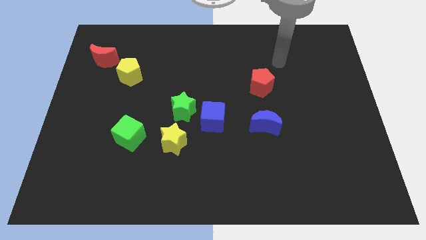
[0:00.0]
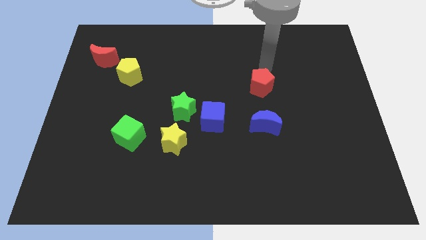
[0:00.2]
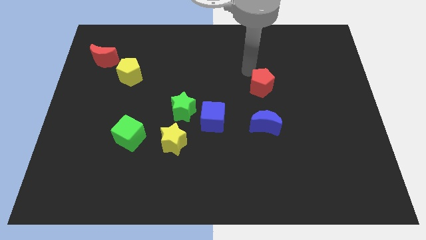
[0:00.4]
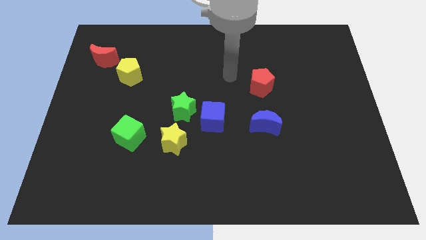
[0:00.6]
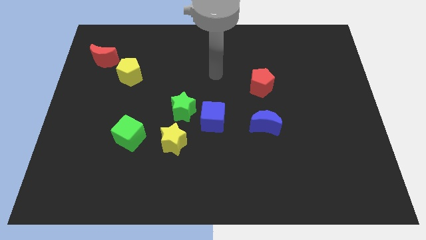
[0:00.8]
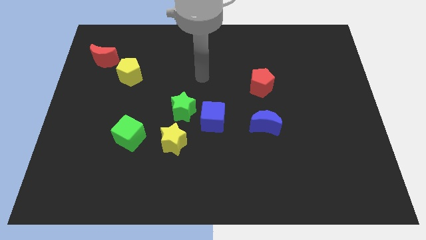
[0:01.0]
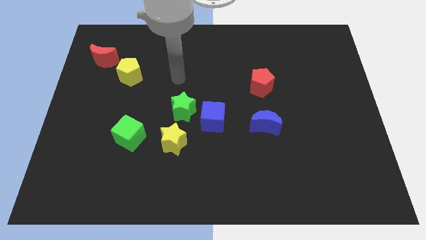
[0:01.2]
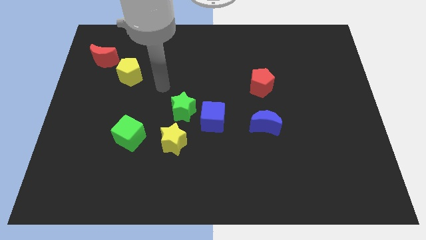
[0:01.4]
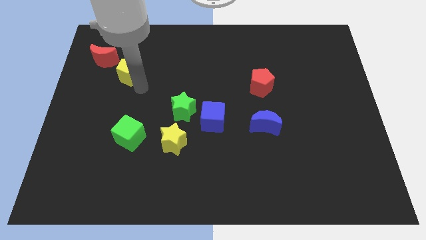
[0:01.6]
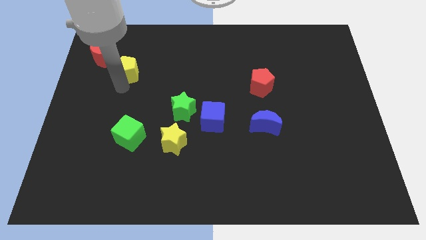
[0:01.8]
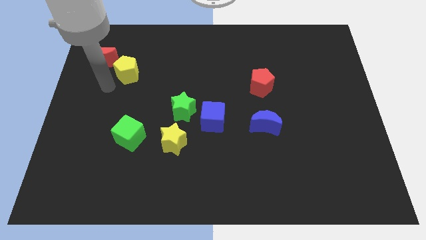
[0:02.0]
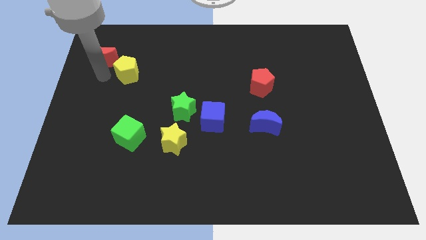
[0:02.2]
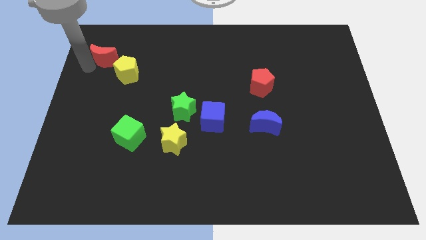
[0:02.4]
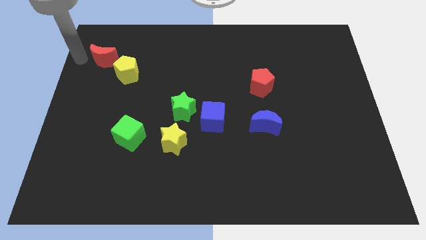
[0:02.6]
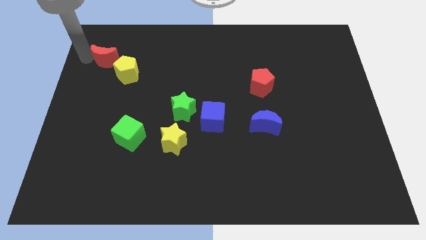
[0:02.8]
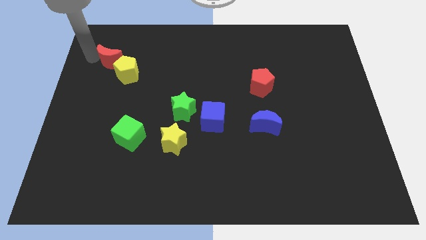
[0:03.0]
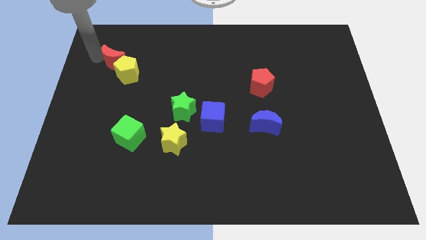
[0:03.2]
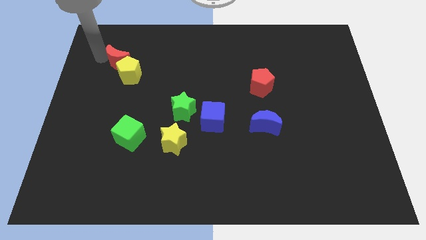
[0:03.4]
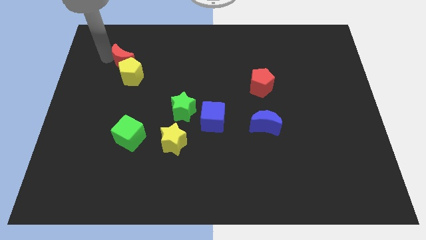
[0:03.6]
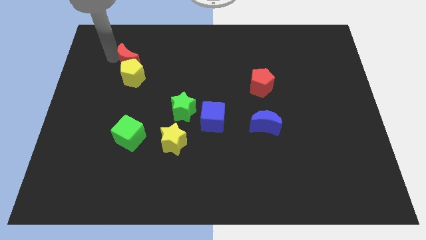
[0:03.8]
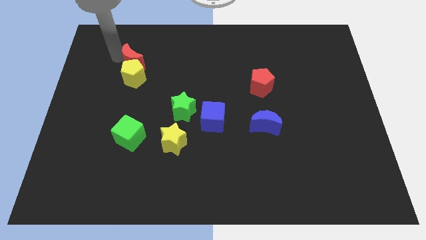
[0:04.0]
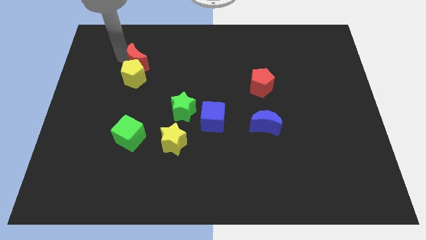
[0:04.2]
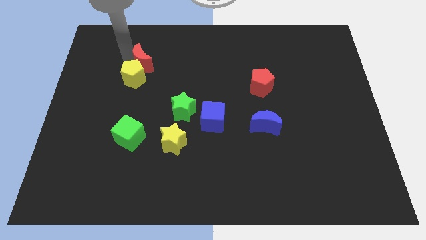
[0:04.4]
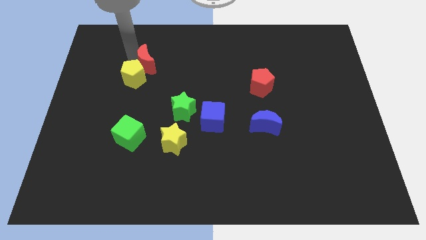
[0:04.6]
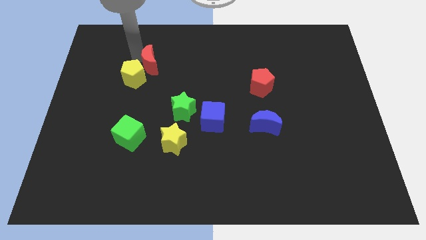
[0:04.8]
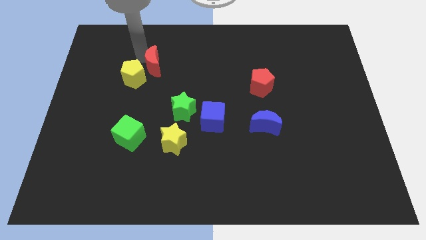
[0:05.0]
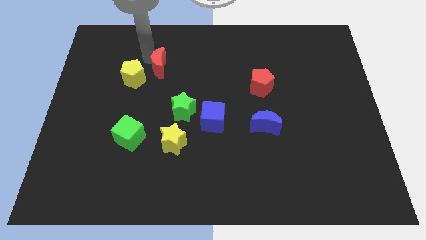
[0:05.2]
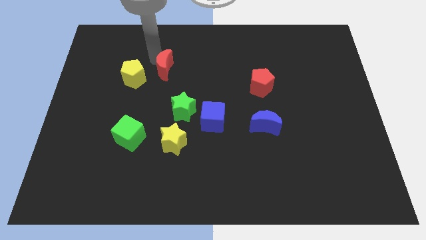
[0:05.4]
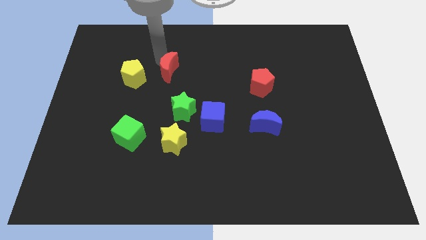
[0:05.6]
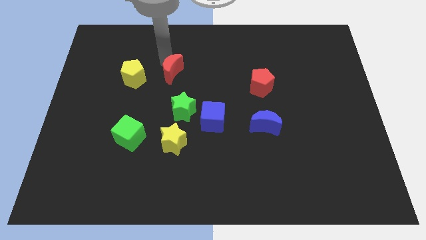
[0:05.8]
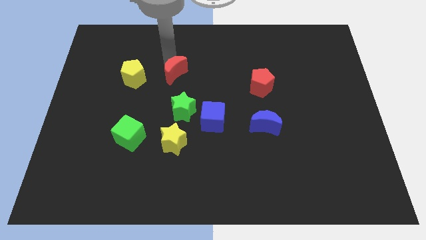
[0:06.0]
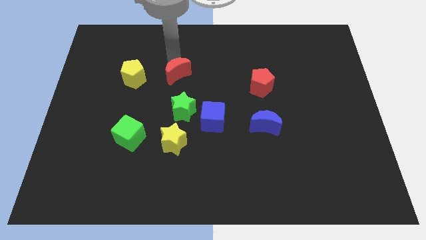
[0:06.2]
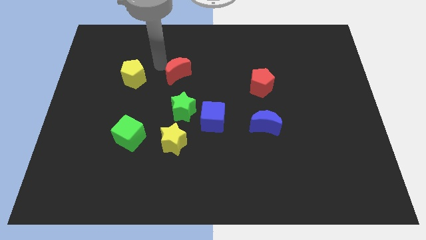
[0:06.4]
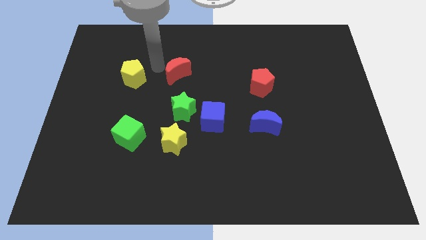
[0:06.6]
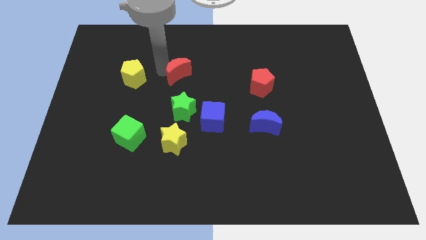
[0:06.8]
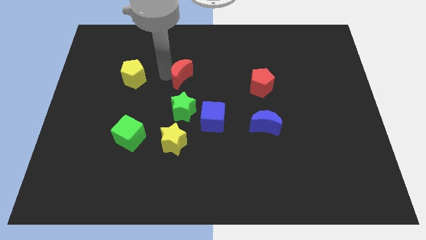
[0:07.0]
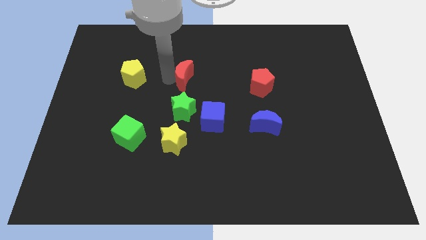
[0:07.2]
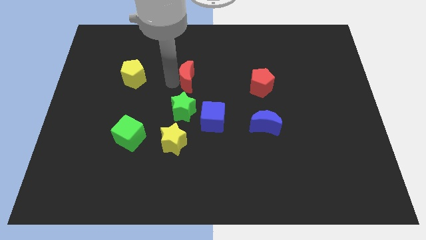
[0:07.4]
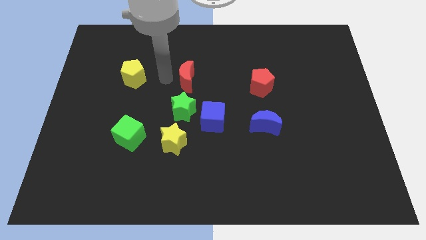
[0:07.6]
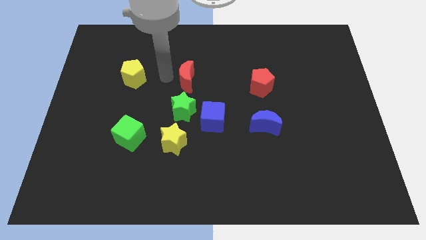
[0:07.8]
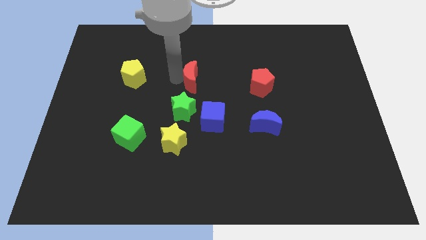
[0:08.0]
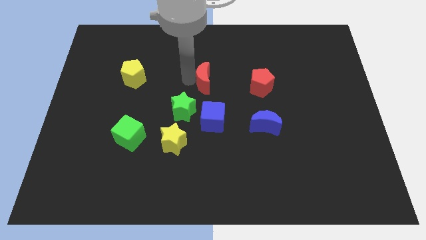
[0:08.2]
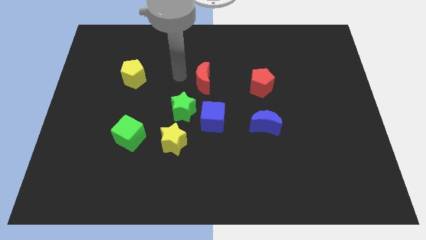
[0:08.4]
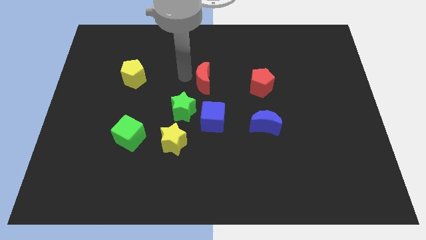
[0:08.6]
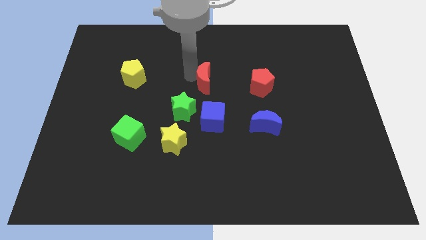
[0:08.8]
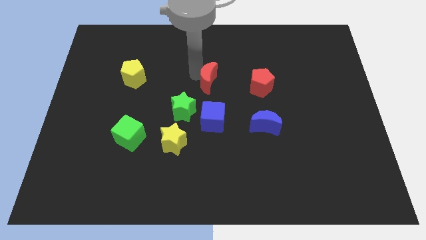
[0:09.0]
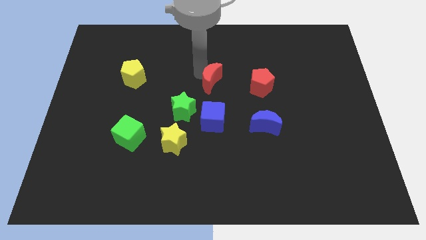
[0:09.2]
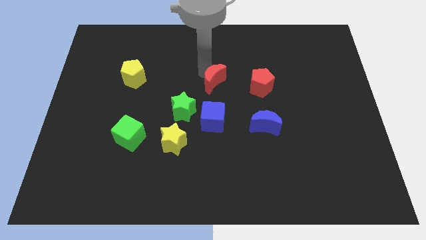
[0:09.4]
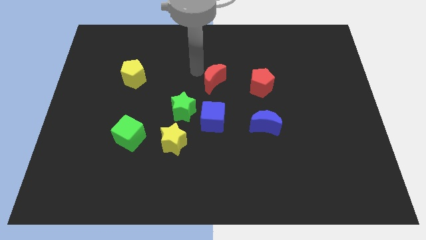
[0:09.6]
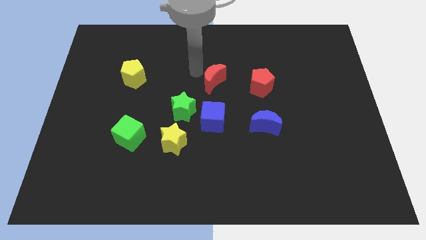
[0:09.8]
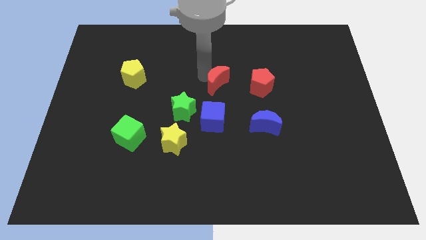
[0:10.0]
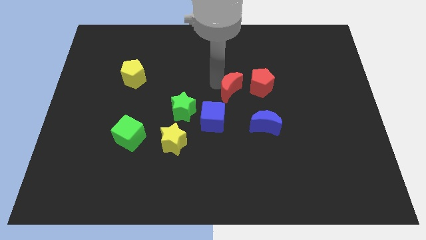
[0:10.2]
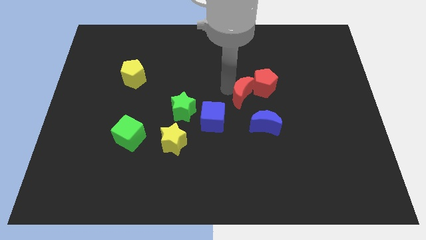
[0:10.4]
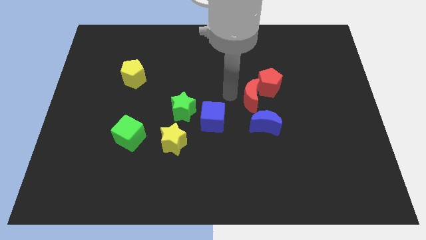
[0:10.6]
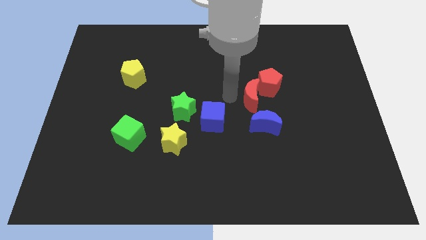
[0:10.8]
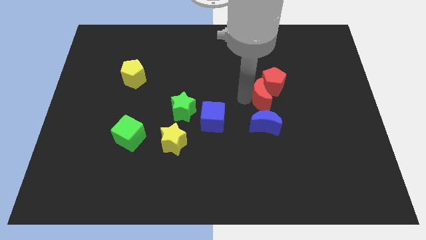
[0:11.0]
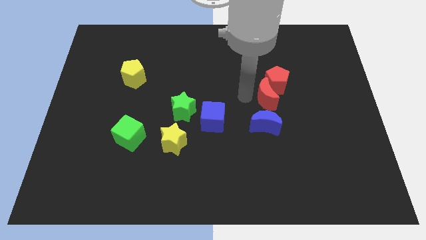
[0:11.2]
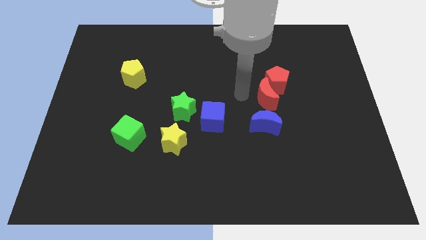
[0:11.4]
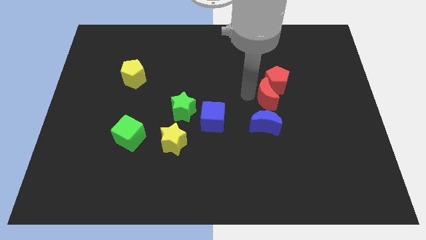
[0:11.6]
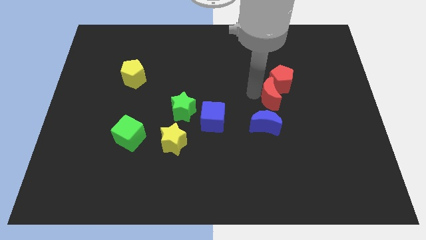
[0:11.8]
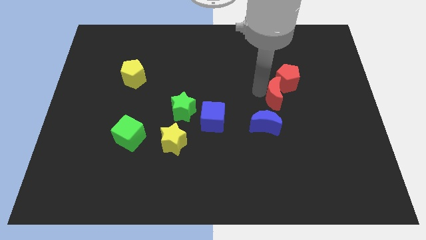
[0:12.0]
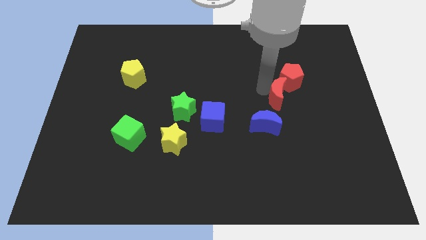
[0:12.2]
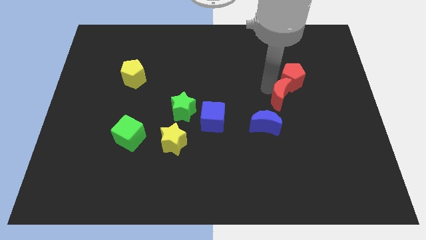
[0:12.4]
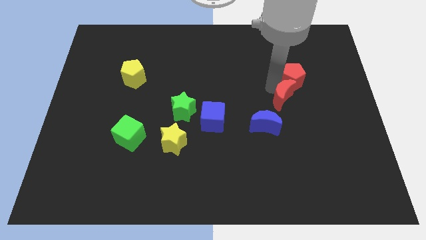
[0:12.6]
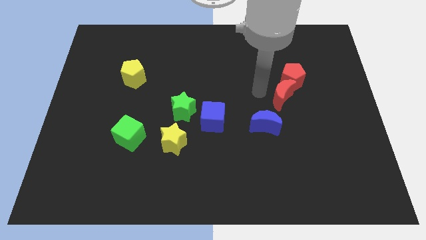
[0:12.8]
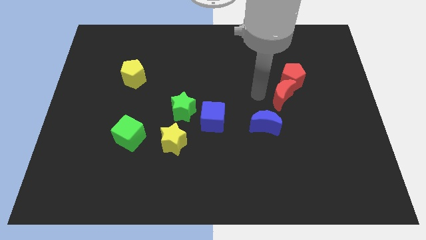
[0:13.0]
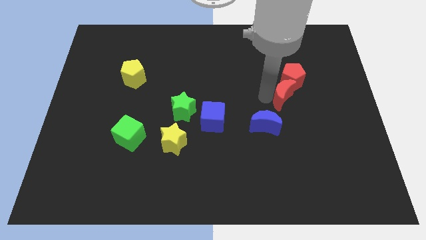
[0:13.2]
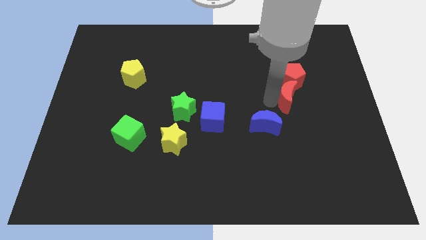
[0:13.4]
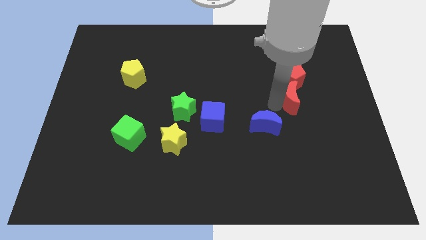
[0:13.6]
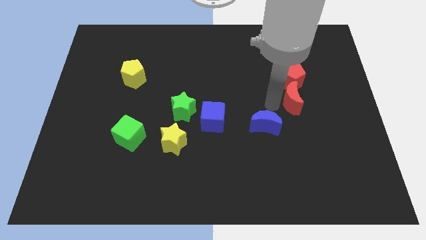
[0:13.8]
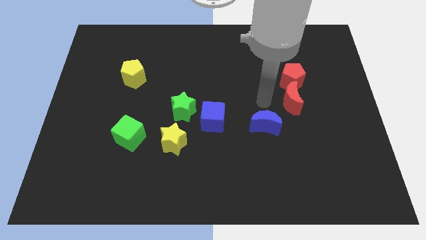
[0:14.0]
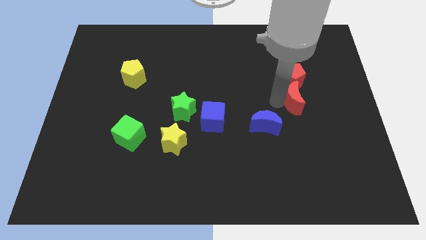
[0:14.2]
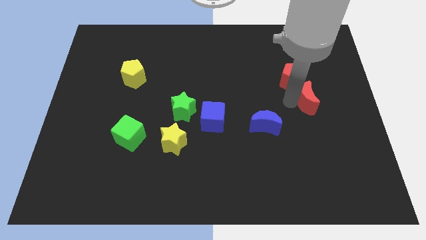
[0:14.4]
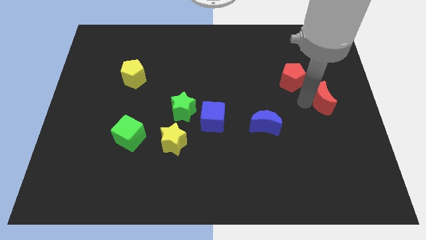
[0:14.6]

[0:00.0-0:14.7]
put the red moon to the right side of the board

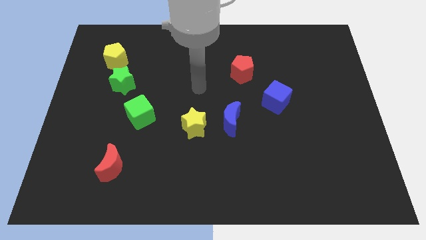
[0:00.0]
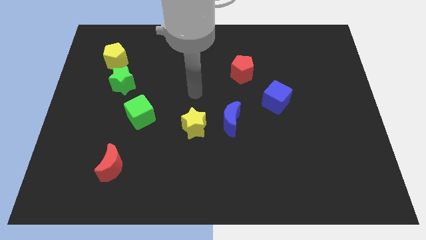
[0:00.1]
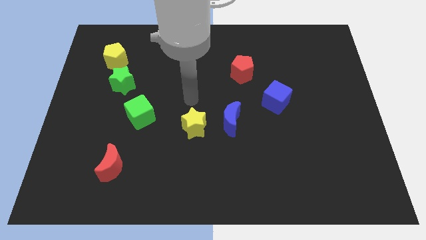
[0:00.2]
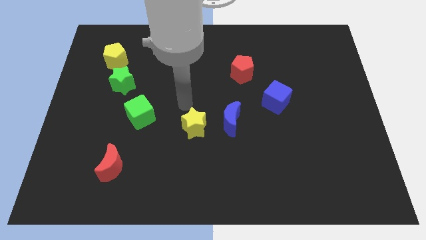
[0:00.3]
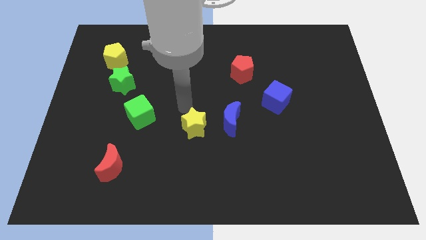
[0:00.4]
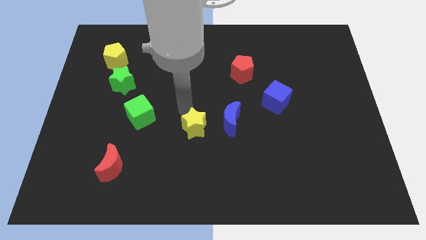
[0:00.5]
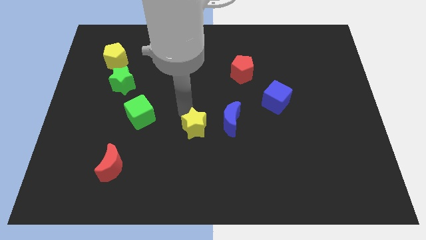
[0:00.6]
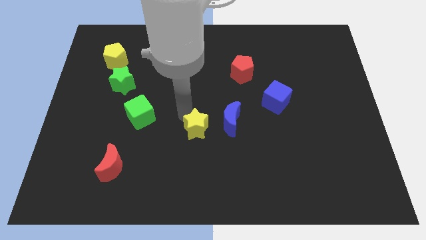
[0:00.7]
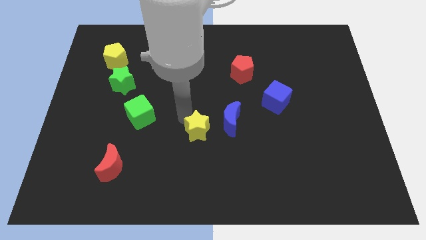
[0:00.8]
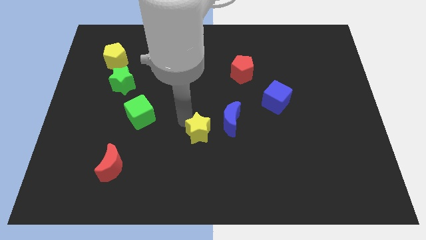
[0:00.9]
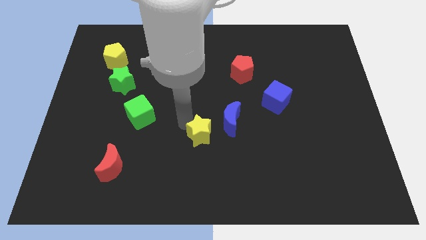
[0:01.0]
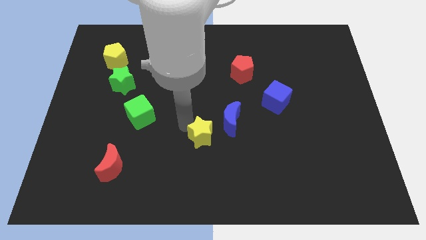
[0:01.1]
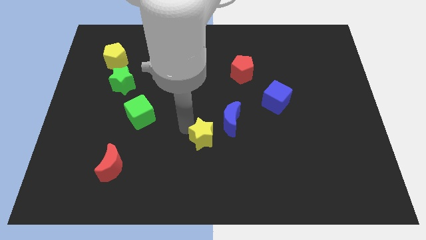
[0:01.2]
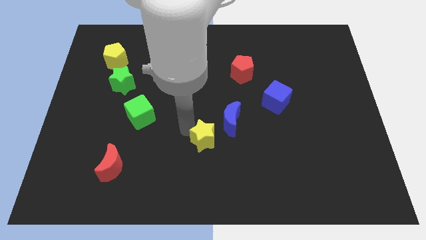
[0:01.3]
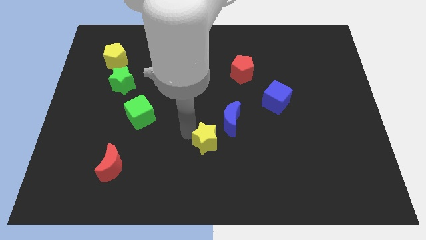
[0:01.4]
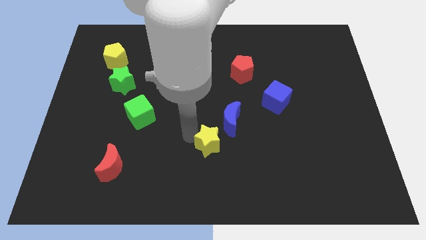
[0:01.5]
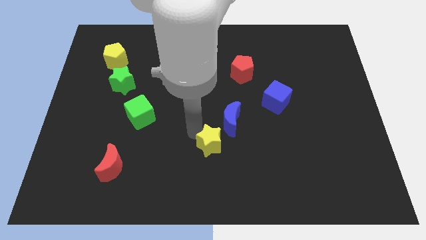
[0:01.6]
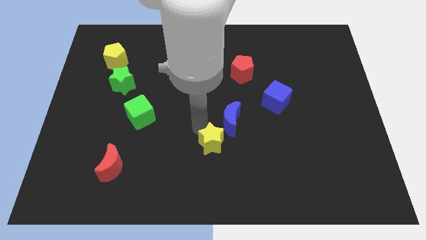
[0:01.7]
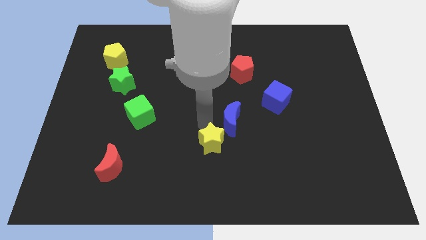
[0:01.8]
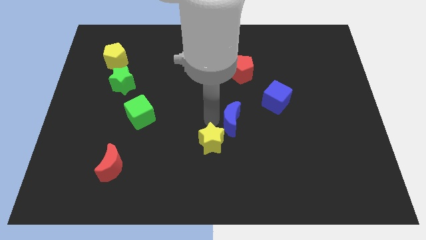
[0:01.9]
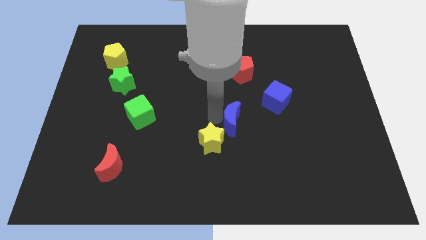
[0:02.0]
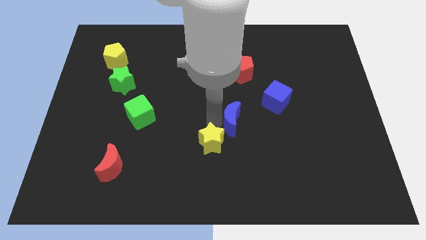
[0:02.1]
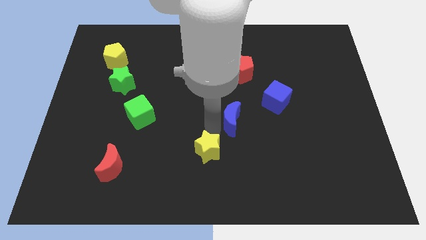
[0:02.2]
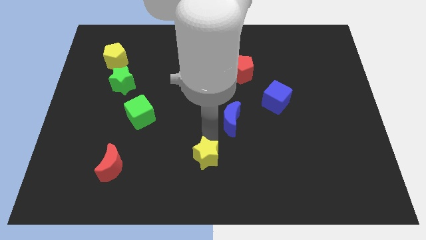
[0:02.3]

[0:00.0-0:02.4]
move the yellow star to the bottom side
